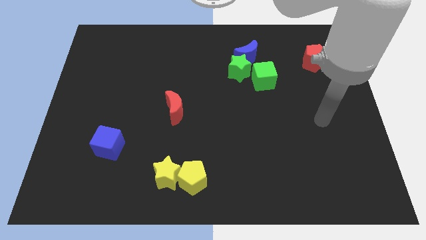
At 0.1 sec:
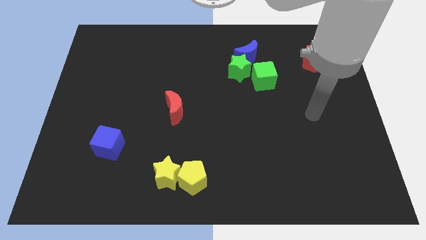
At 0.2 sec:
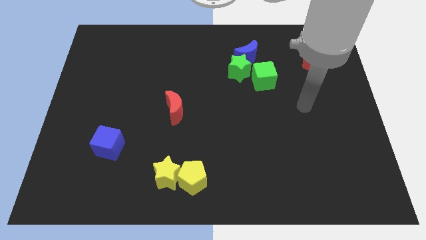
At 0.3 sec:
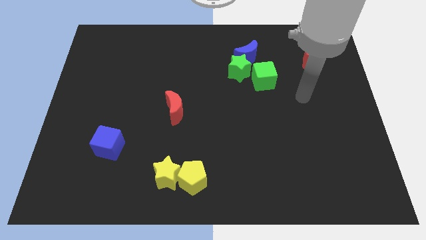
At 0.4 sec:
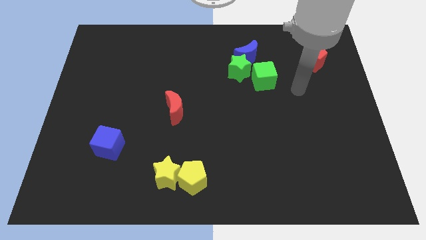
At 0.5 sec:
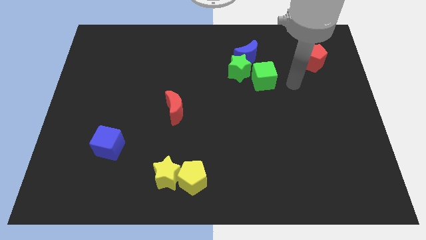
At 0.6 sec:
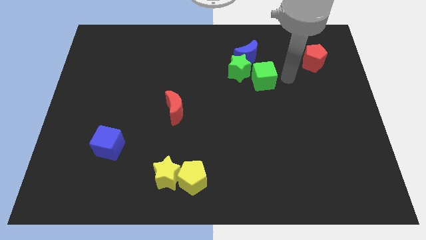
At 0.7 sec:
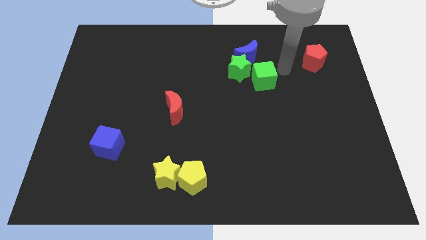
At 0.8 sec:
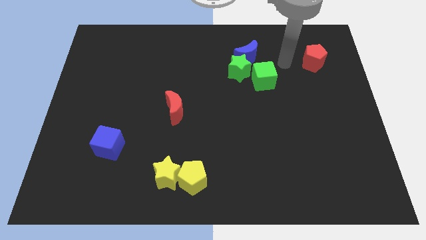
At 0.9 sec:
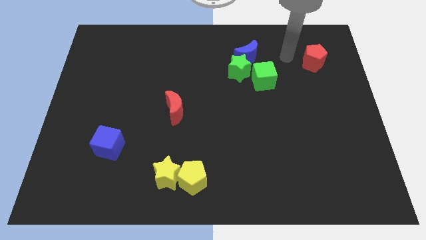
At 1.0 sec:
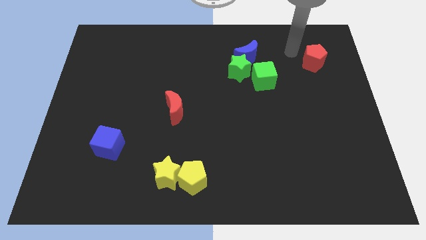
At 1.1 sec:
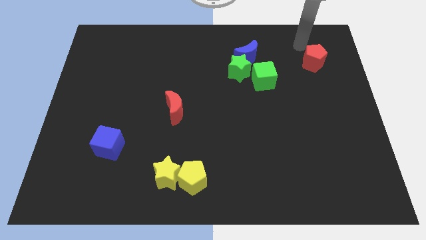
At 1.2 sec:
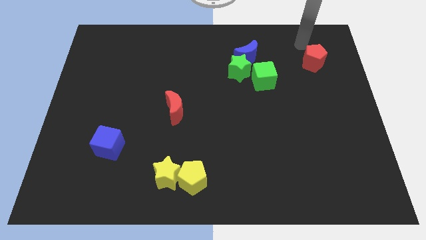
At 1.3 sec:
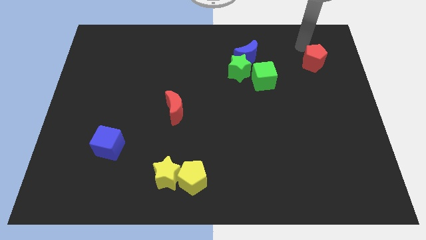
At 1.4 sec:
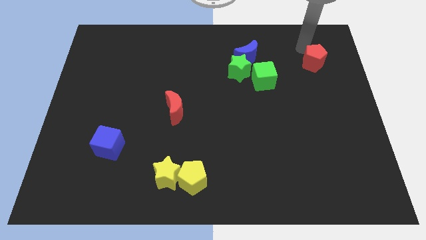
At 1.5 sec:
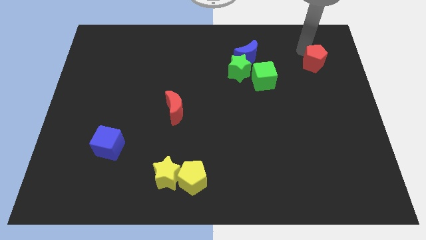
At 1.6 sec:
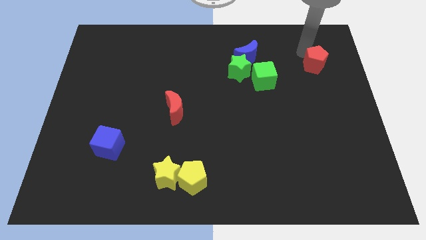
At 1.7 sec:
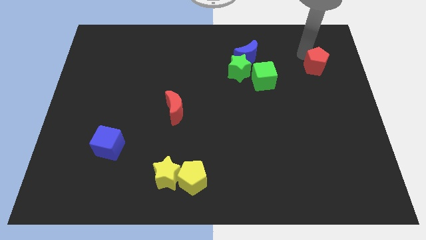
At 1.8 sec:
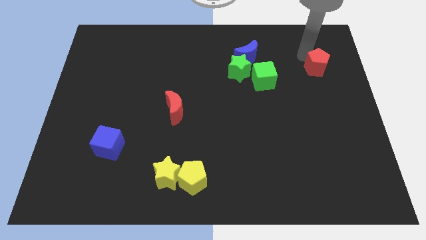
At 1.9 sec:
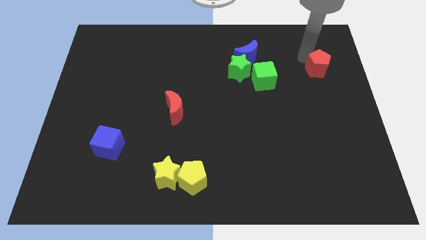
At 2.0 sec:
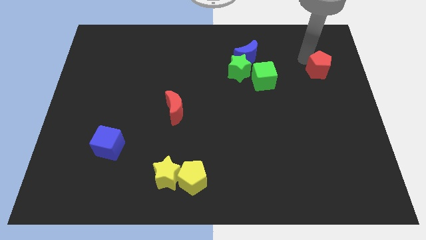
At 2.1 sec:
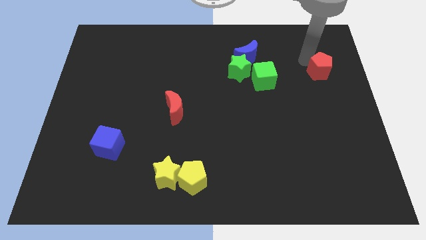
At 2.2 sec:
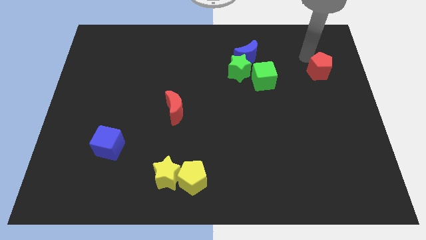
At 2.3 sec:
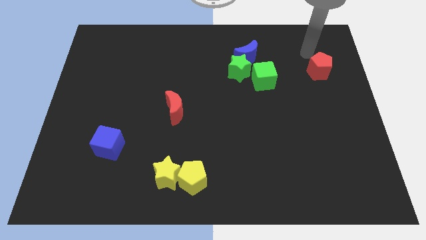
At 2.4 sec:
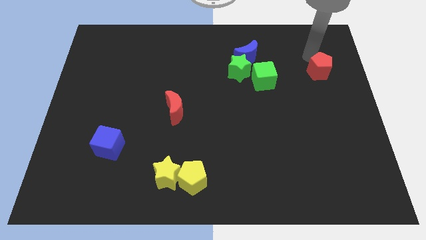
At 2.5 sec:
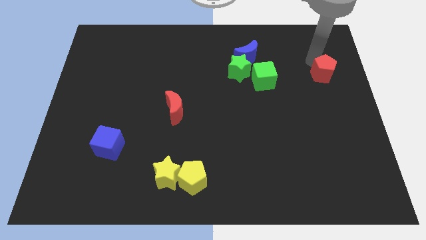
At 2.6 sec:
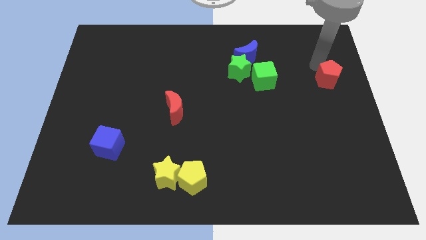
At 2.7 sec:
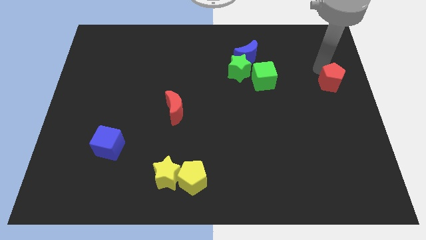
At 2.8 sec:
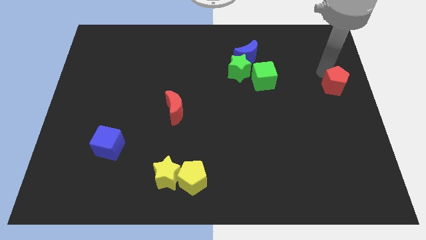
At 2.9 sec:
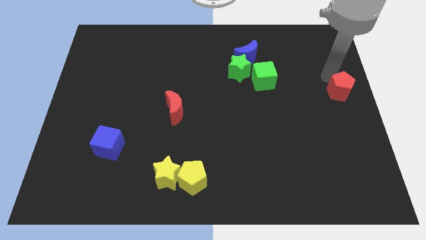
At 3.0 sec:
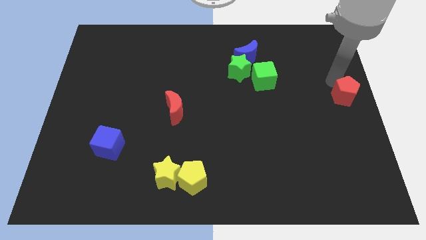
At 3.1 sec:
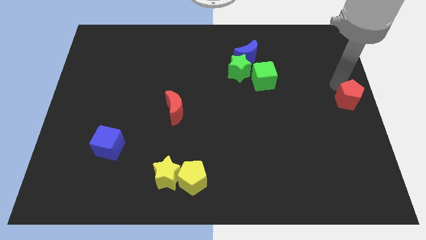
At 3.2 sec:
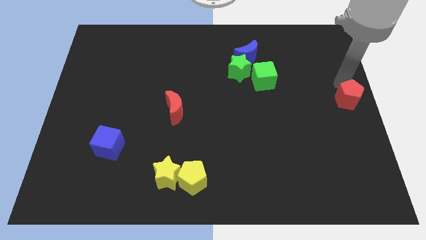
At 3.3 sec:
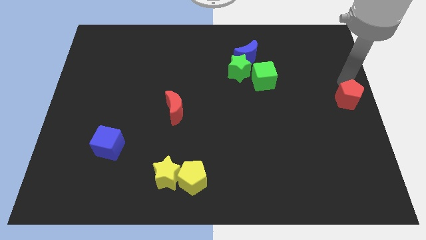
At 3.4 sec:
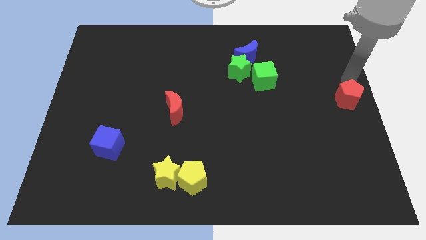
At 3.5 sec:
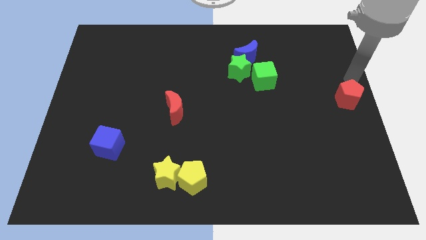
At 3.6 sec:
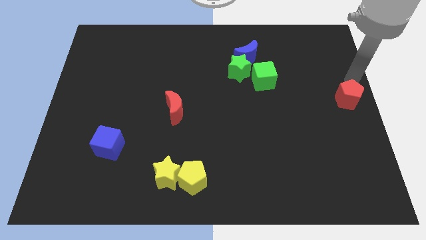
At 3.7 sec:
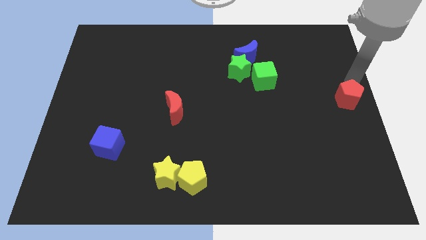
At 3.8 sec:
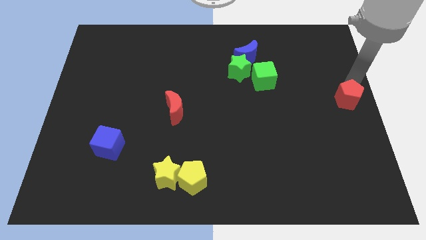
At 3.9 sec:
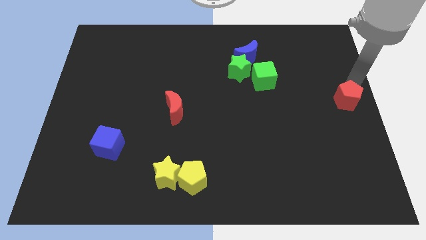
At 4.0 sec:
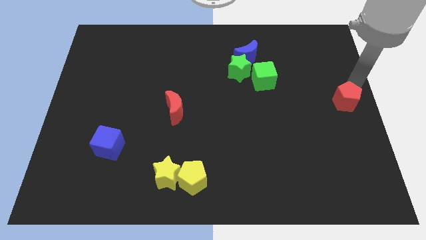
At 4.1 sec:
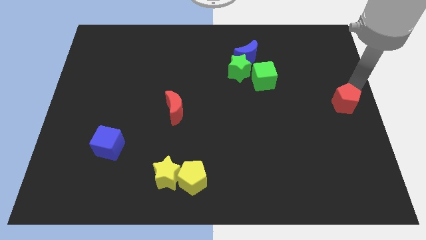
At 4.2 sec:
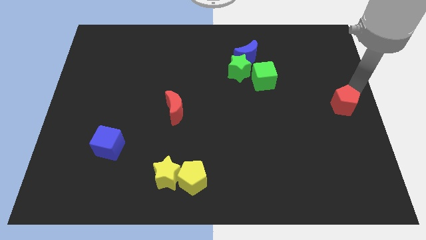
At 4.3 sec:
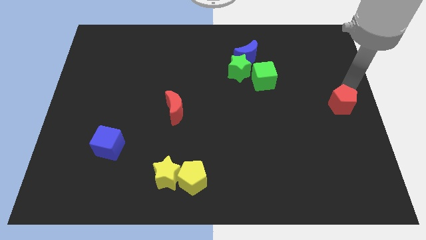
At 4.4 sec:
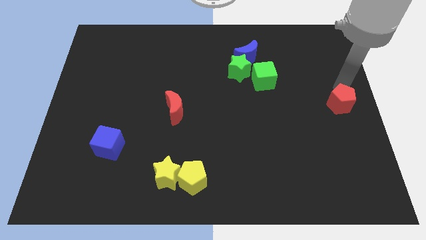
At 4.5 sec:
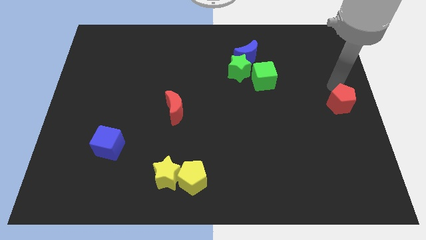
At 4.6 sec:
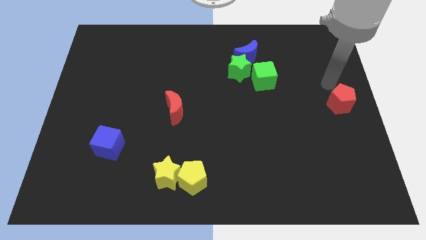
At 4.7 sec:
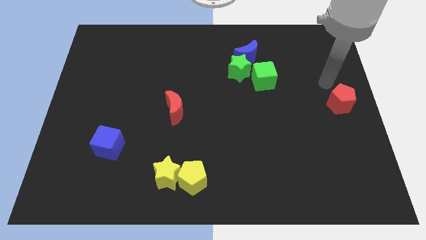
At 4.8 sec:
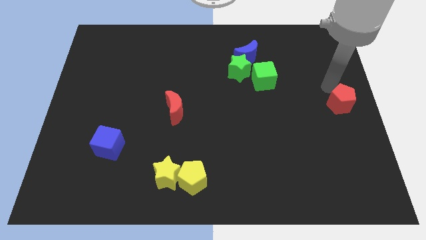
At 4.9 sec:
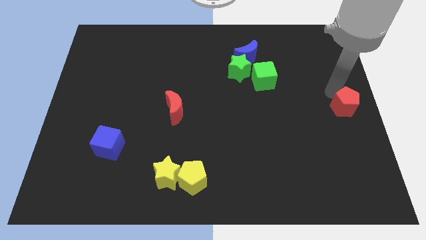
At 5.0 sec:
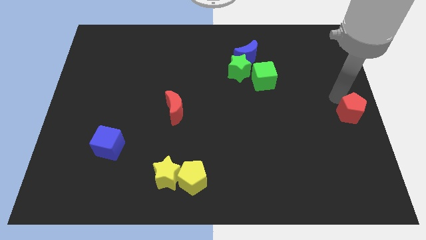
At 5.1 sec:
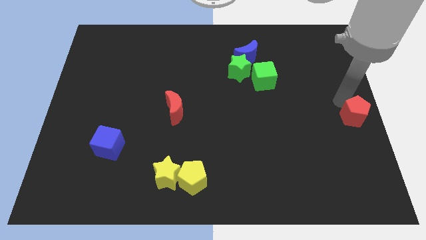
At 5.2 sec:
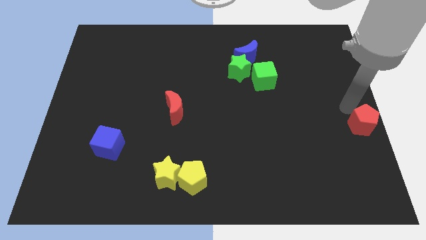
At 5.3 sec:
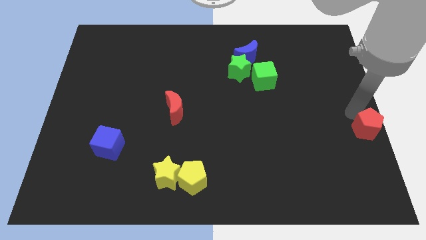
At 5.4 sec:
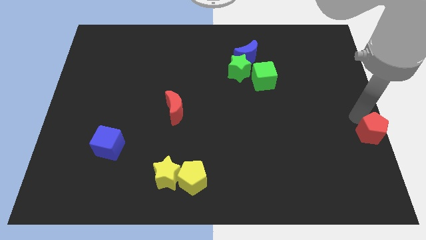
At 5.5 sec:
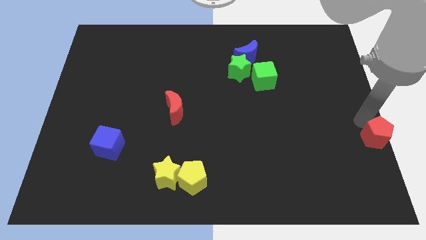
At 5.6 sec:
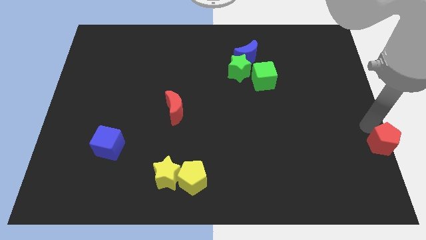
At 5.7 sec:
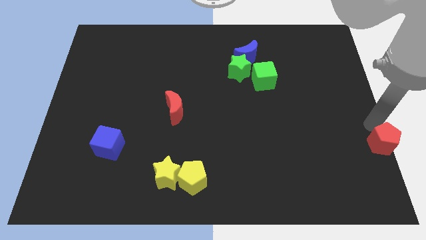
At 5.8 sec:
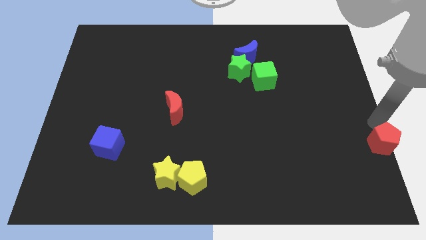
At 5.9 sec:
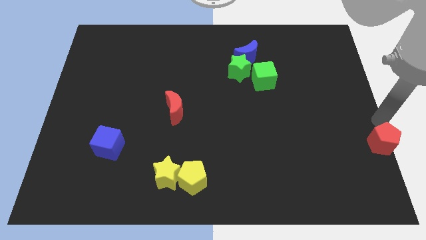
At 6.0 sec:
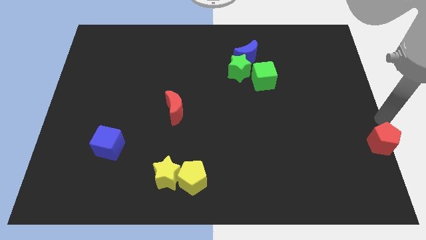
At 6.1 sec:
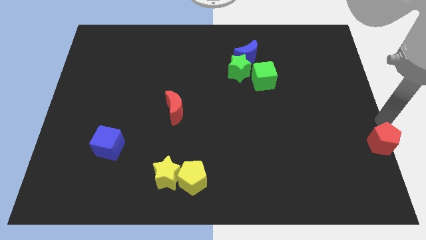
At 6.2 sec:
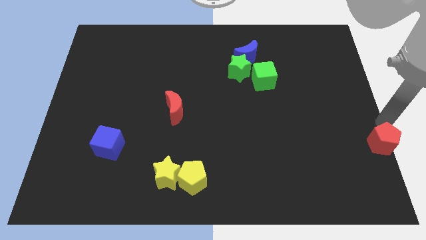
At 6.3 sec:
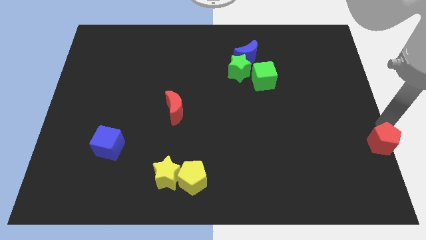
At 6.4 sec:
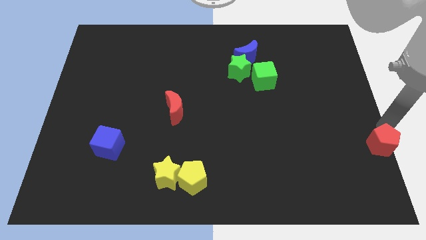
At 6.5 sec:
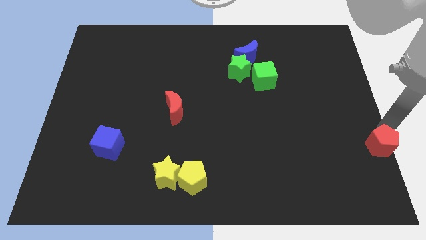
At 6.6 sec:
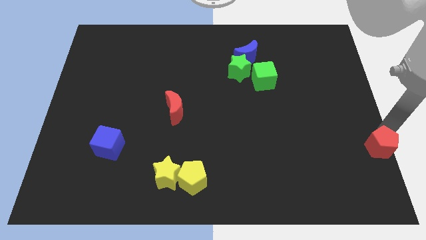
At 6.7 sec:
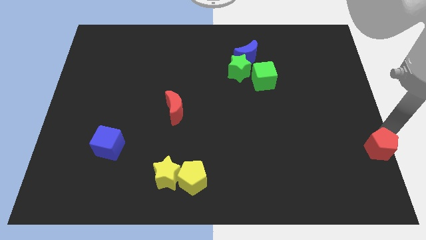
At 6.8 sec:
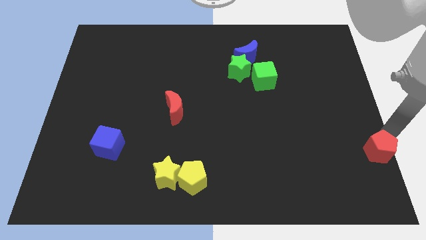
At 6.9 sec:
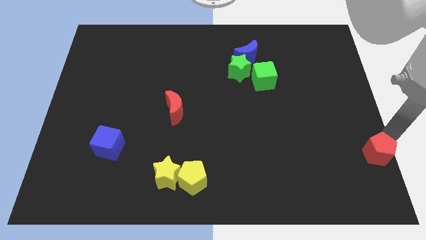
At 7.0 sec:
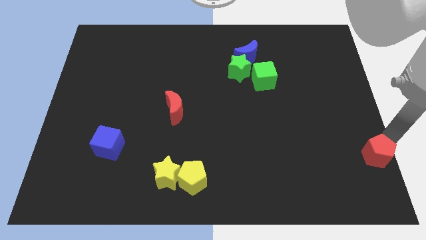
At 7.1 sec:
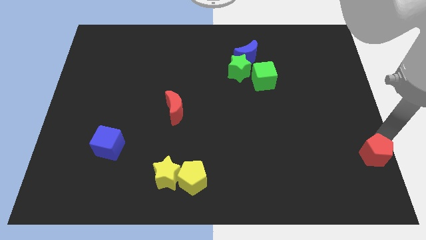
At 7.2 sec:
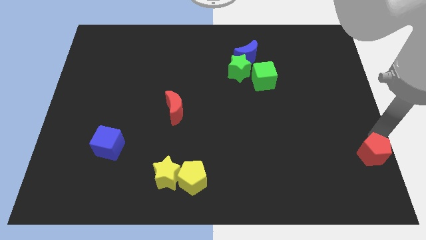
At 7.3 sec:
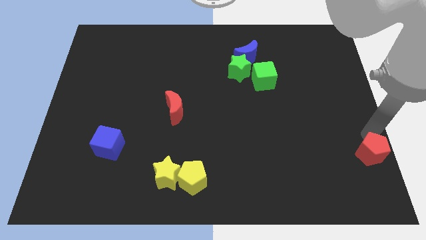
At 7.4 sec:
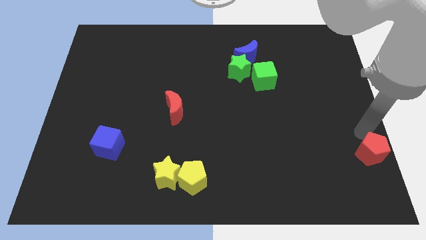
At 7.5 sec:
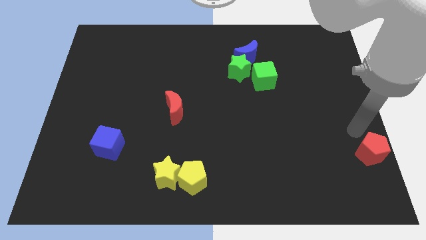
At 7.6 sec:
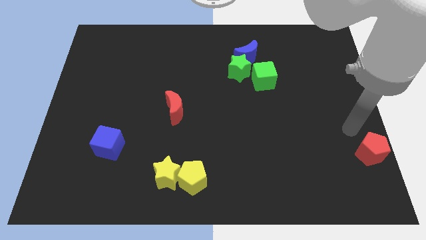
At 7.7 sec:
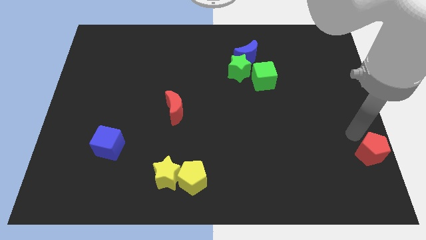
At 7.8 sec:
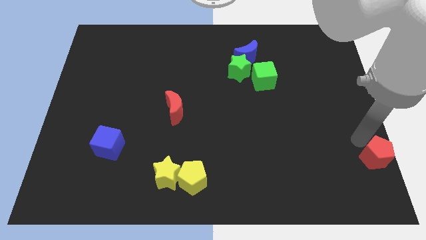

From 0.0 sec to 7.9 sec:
push the red pentagon to the bottom right corner
